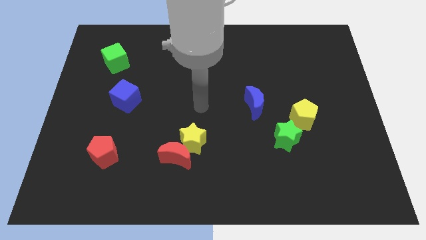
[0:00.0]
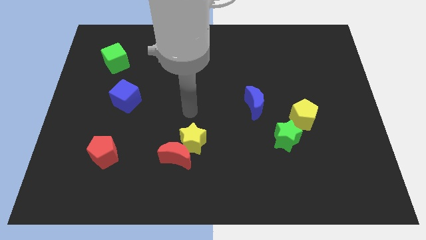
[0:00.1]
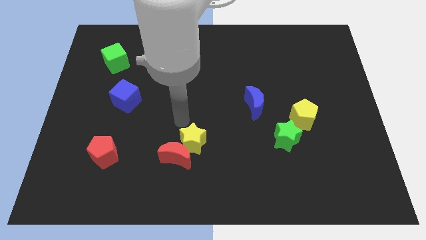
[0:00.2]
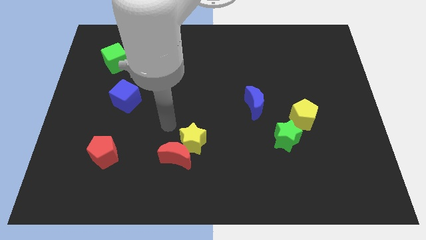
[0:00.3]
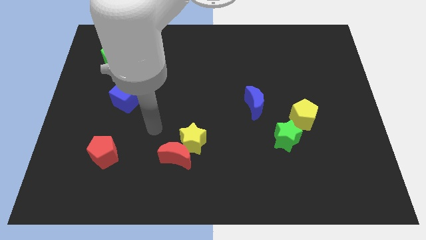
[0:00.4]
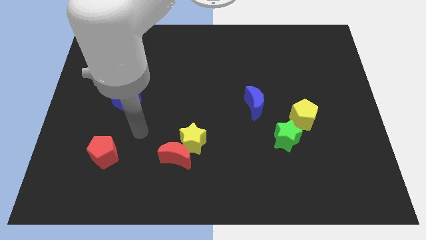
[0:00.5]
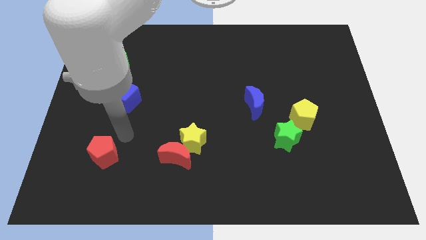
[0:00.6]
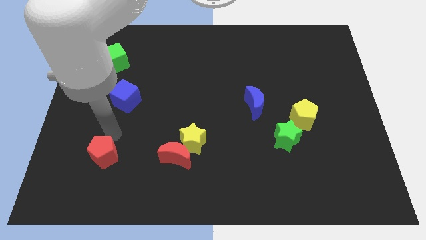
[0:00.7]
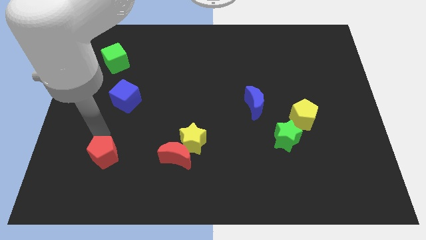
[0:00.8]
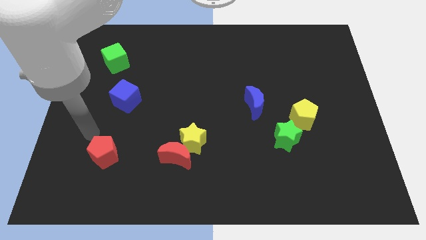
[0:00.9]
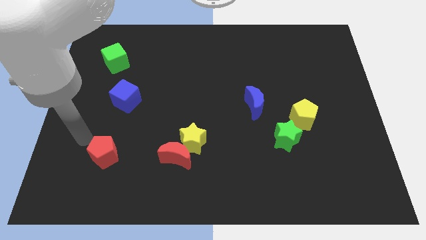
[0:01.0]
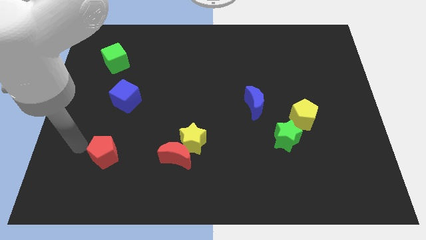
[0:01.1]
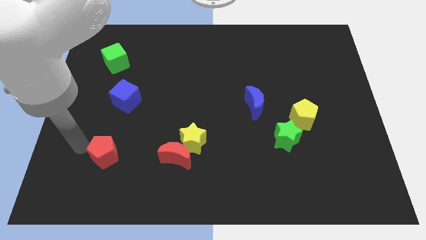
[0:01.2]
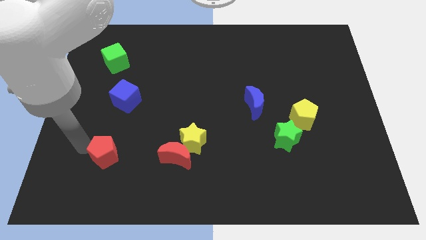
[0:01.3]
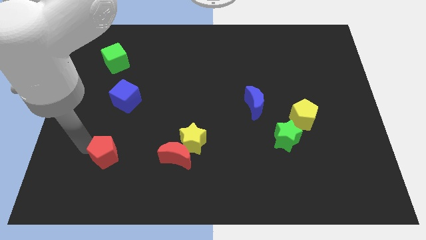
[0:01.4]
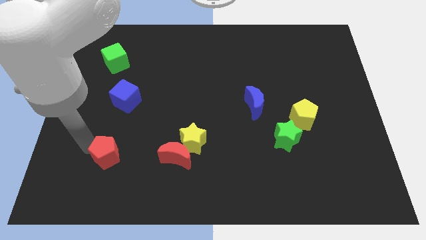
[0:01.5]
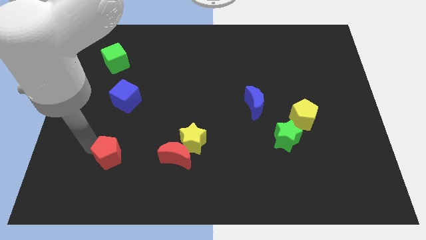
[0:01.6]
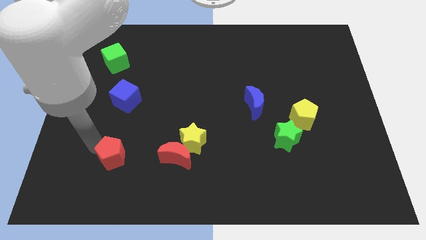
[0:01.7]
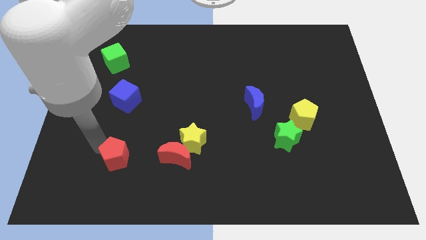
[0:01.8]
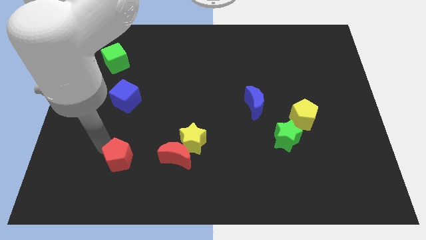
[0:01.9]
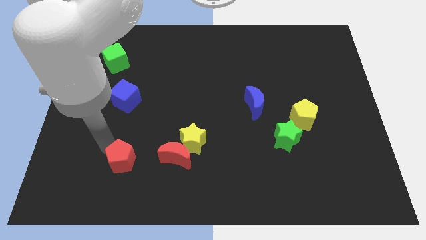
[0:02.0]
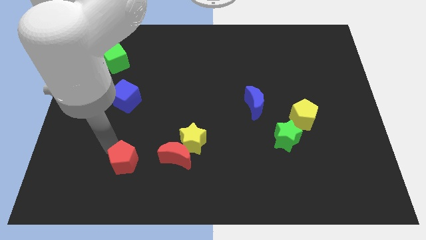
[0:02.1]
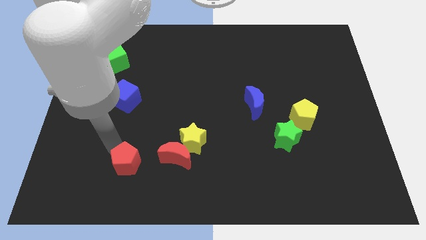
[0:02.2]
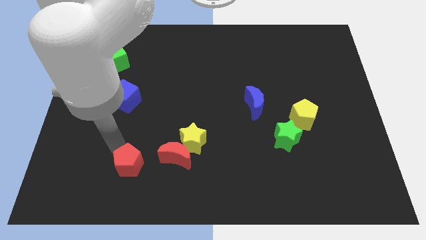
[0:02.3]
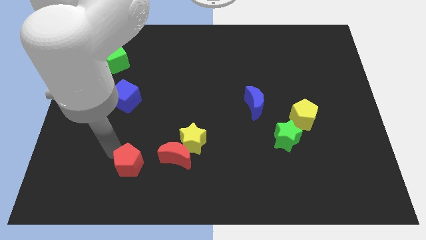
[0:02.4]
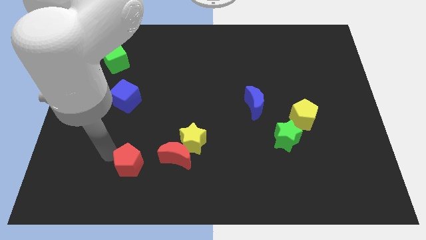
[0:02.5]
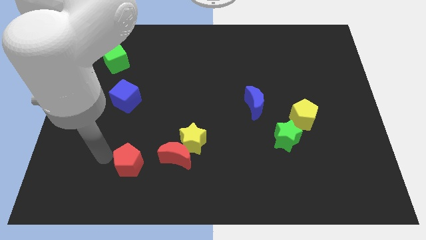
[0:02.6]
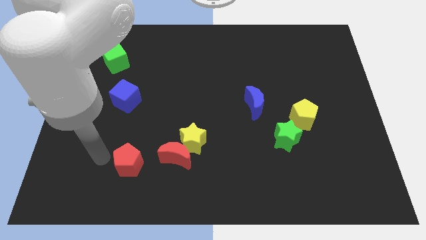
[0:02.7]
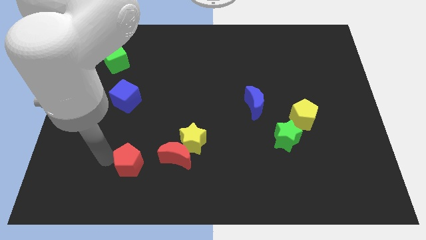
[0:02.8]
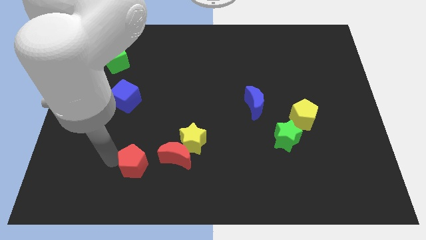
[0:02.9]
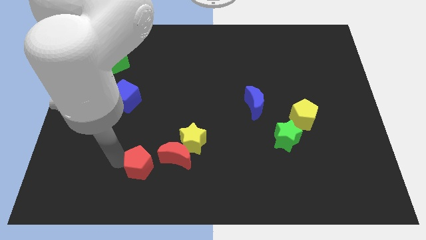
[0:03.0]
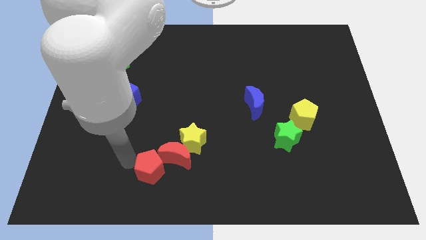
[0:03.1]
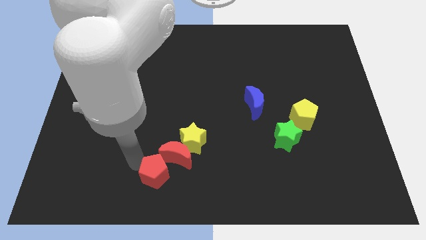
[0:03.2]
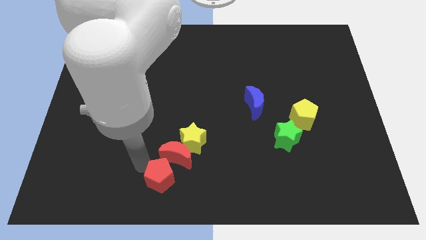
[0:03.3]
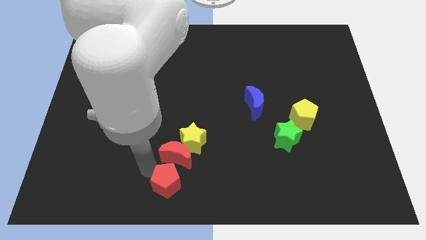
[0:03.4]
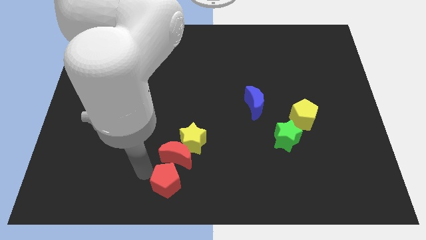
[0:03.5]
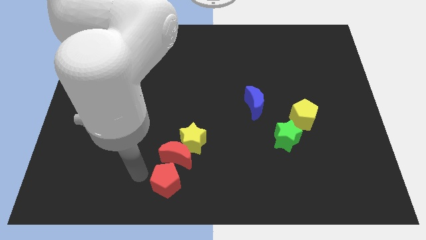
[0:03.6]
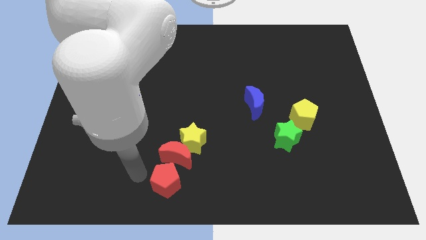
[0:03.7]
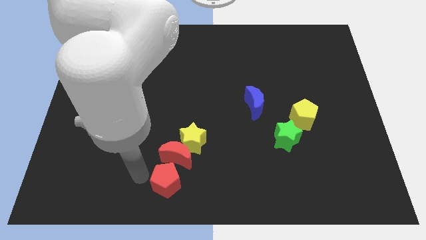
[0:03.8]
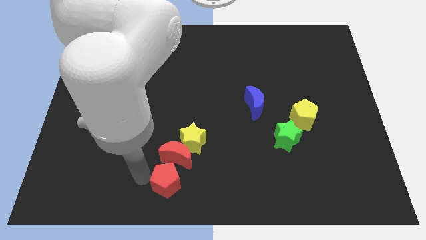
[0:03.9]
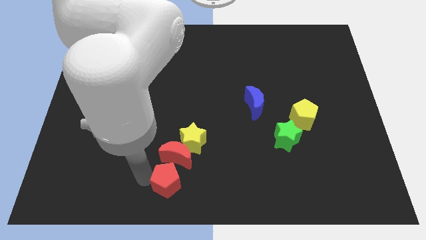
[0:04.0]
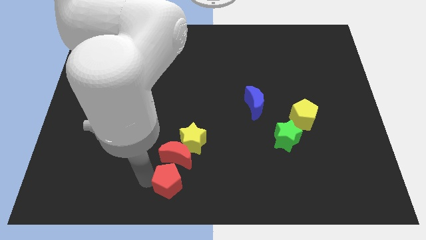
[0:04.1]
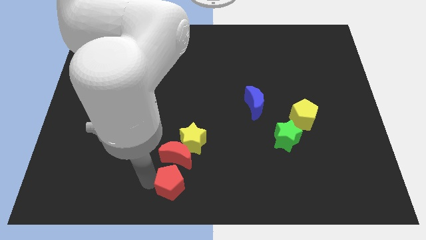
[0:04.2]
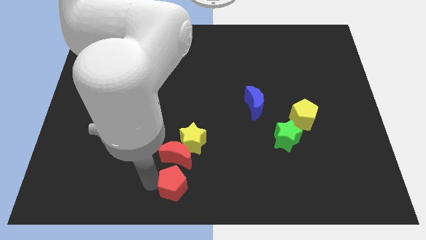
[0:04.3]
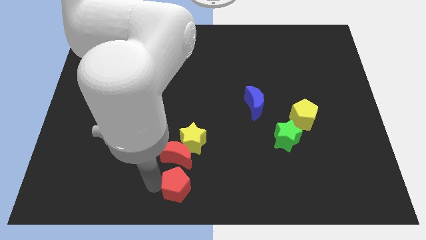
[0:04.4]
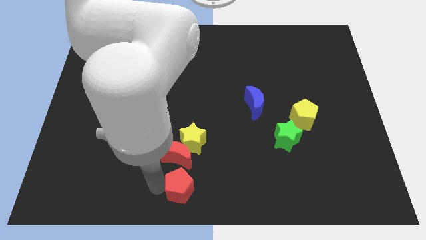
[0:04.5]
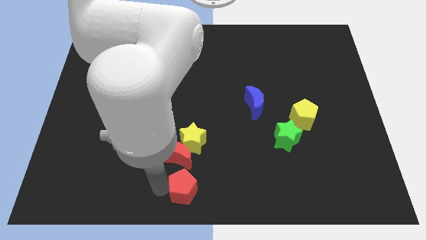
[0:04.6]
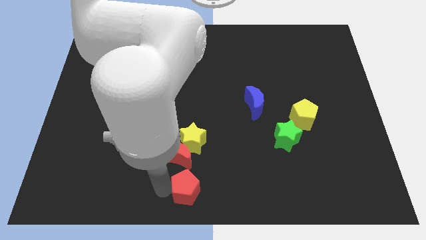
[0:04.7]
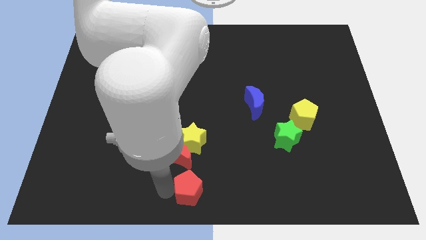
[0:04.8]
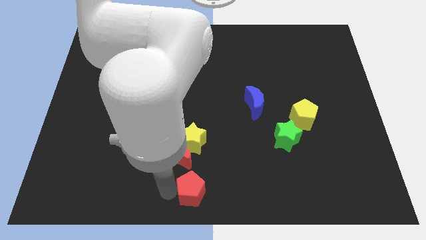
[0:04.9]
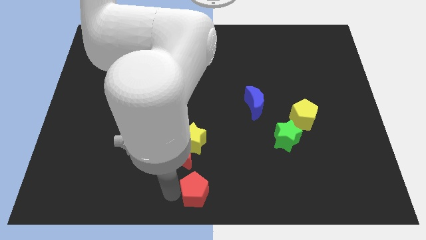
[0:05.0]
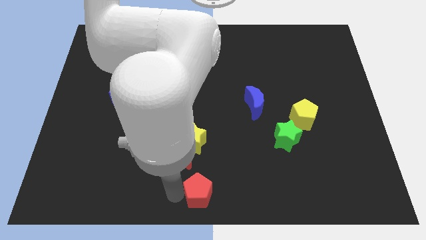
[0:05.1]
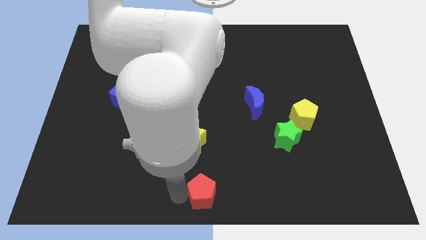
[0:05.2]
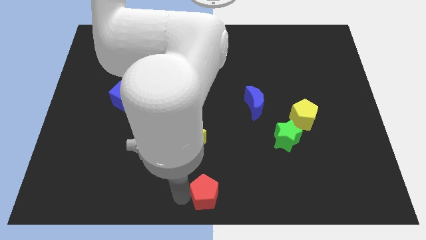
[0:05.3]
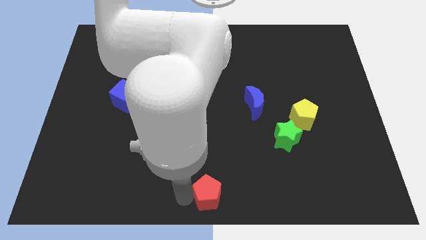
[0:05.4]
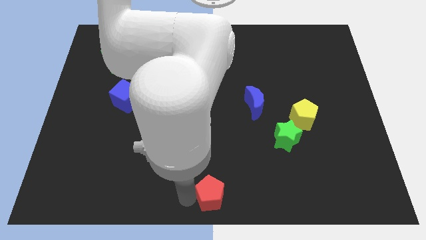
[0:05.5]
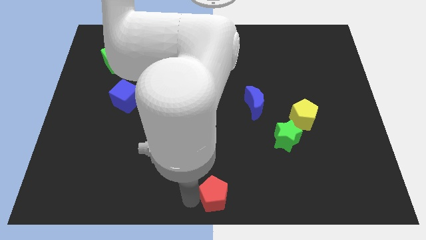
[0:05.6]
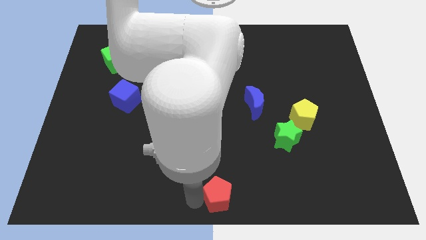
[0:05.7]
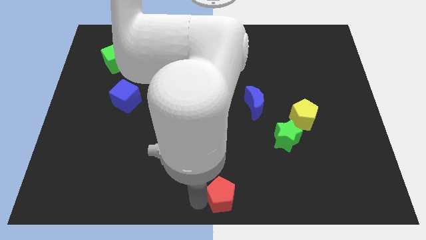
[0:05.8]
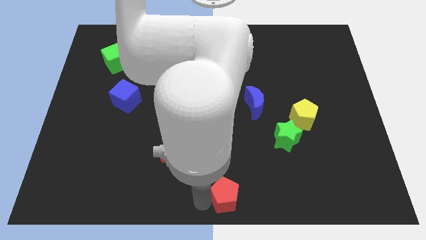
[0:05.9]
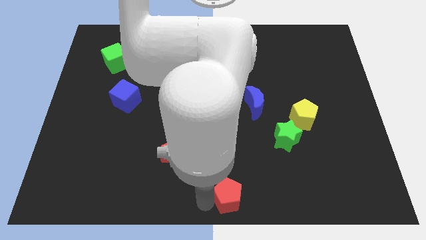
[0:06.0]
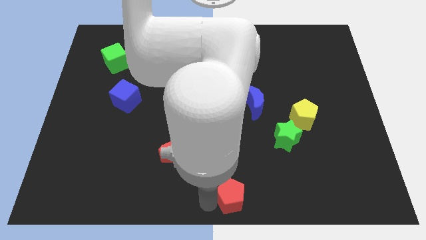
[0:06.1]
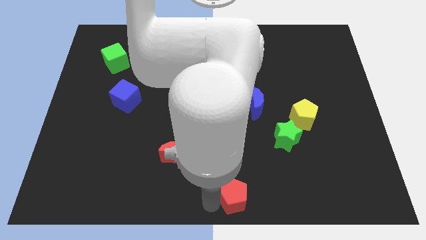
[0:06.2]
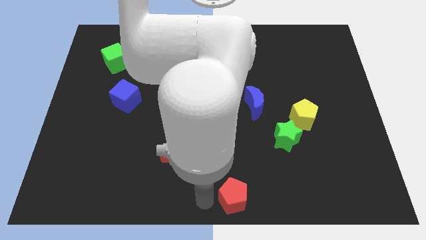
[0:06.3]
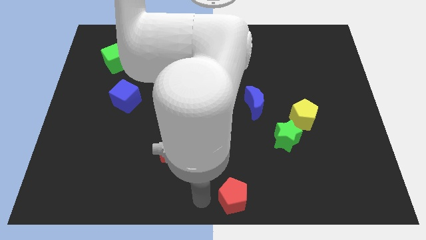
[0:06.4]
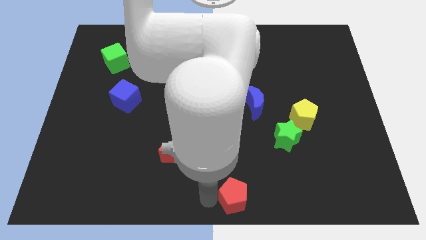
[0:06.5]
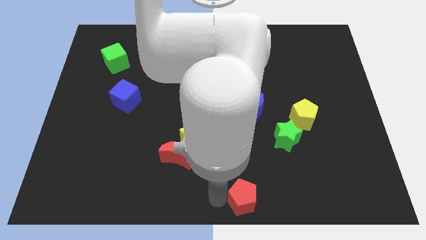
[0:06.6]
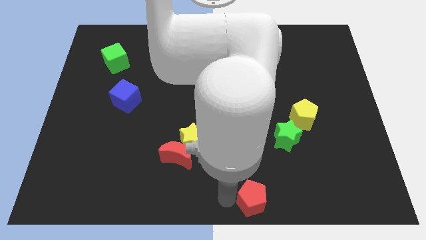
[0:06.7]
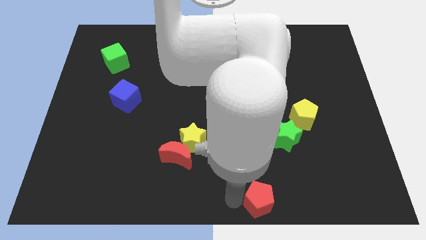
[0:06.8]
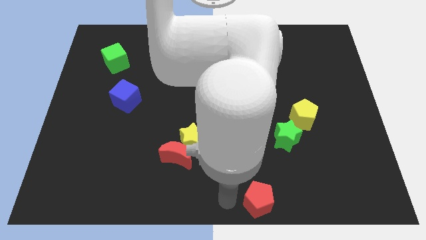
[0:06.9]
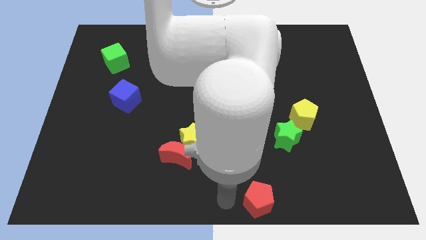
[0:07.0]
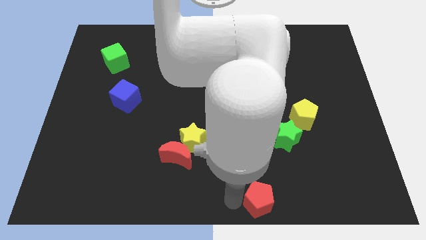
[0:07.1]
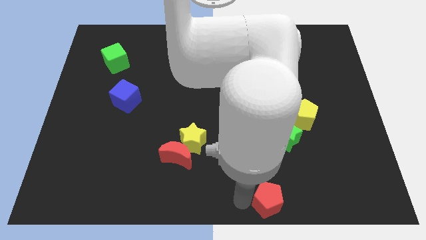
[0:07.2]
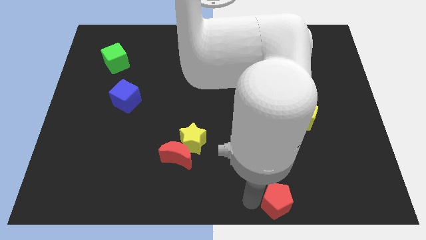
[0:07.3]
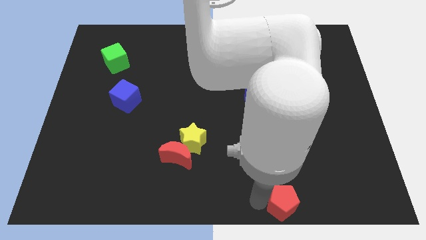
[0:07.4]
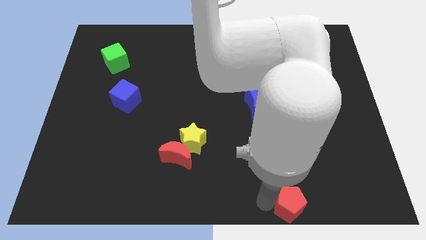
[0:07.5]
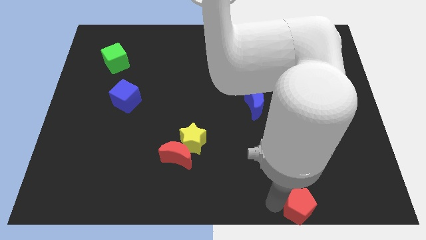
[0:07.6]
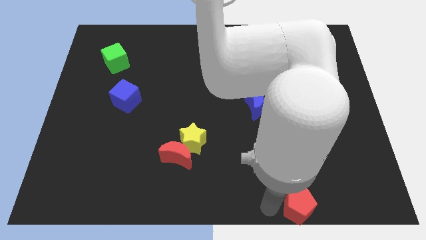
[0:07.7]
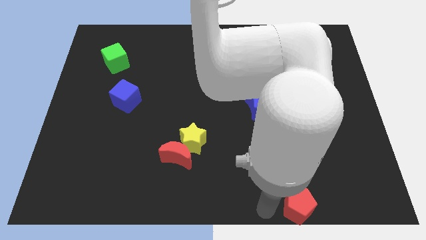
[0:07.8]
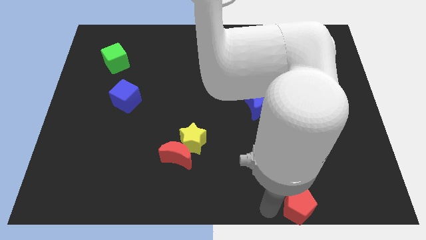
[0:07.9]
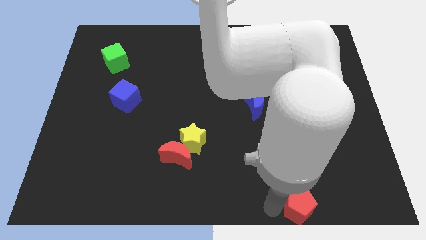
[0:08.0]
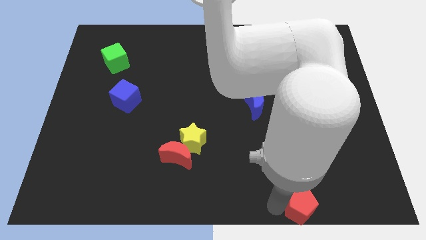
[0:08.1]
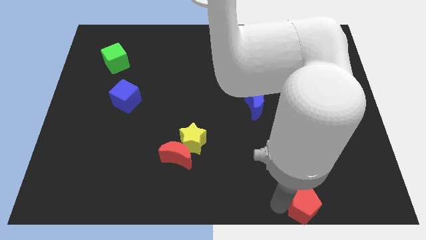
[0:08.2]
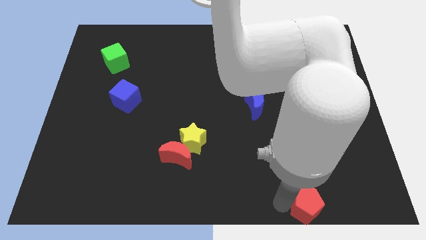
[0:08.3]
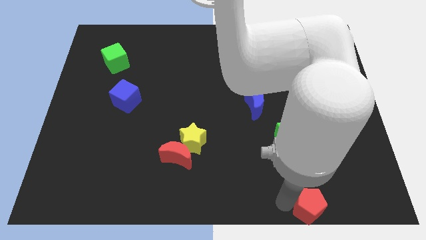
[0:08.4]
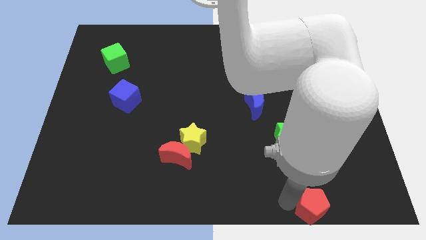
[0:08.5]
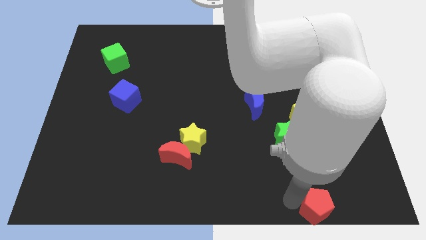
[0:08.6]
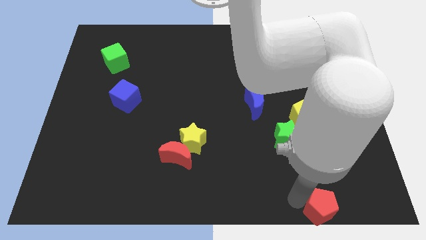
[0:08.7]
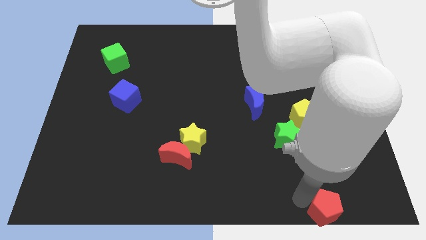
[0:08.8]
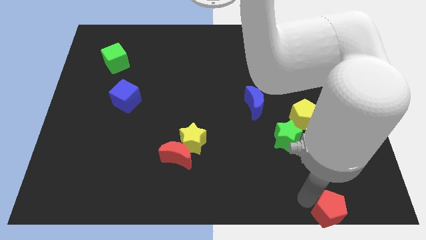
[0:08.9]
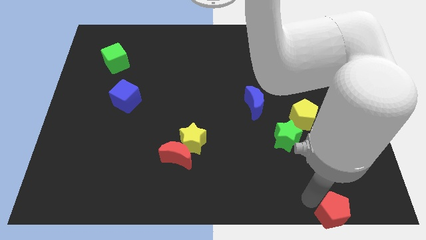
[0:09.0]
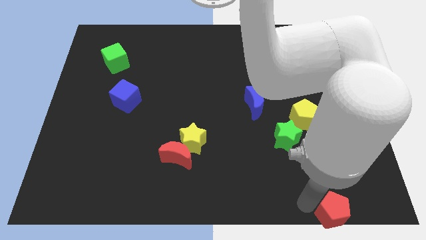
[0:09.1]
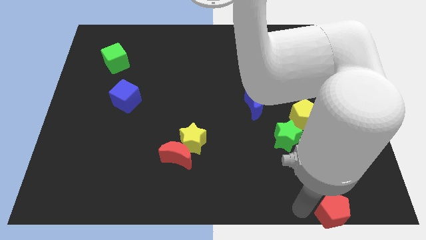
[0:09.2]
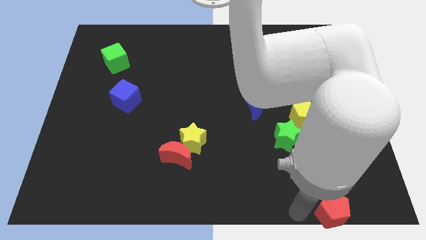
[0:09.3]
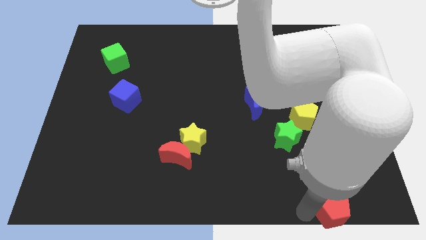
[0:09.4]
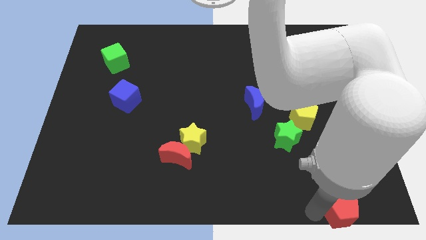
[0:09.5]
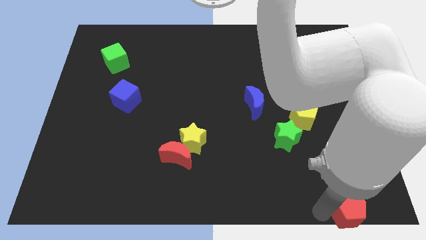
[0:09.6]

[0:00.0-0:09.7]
move the red pentagon to the bottom right
